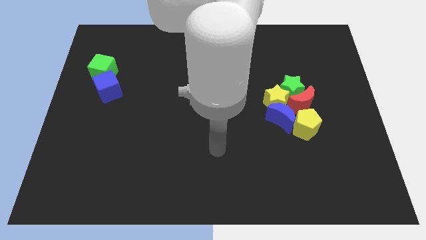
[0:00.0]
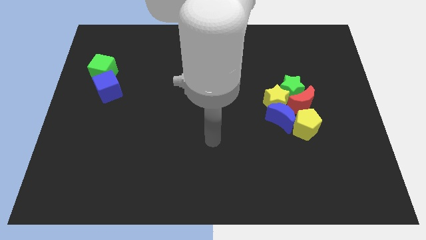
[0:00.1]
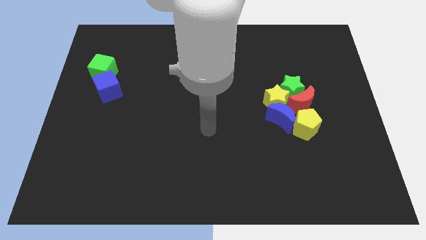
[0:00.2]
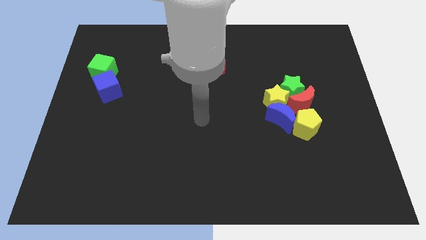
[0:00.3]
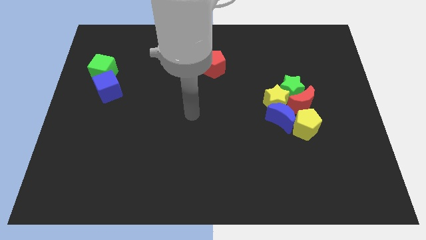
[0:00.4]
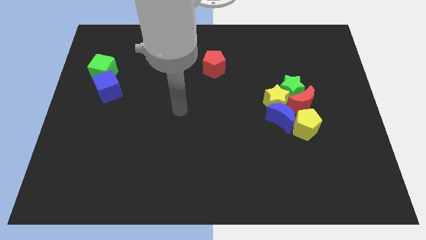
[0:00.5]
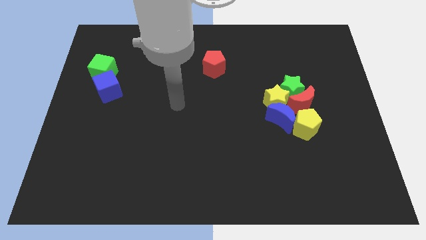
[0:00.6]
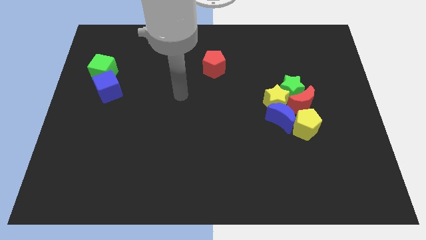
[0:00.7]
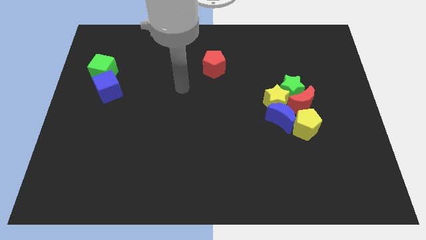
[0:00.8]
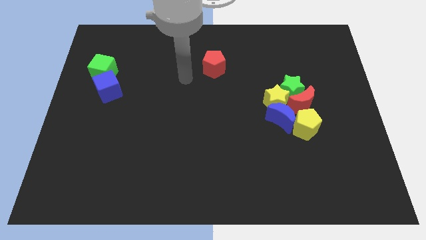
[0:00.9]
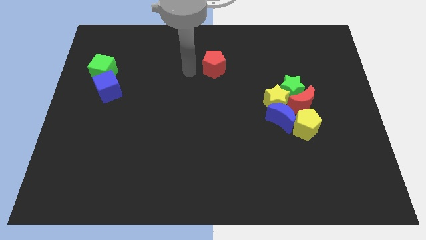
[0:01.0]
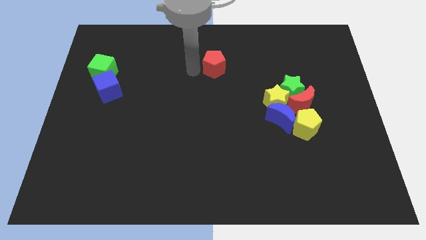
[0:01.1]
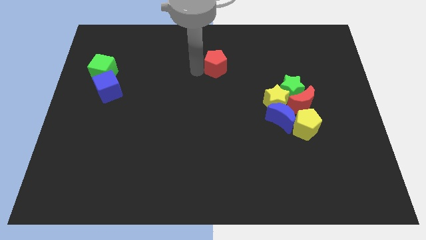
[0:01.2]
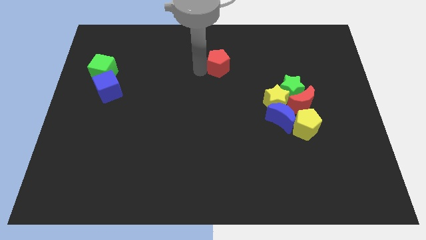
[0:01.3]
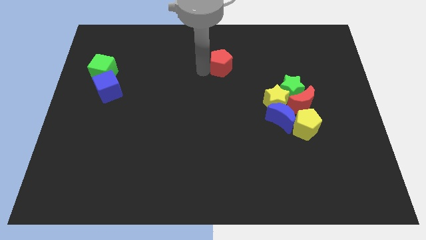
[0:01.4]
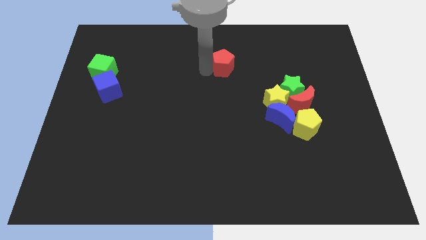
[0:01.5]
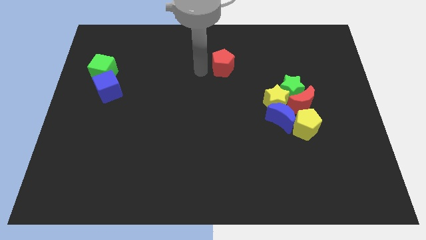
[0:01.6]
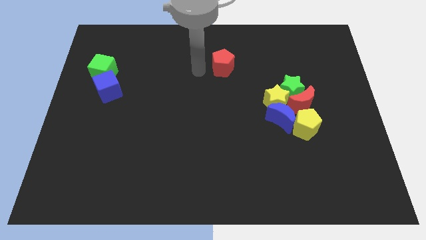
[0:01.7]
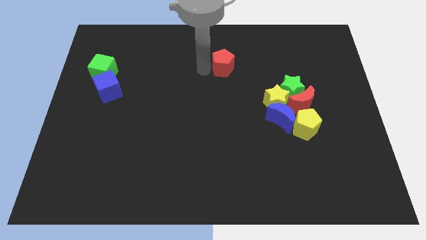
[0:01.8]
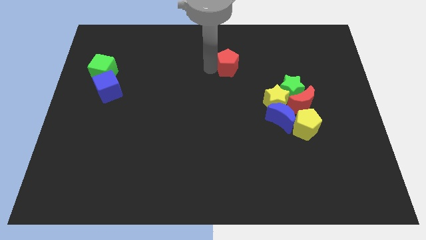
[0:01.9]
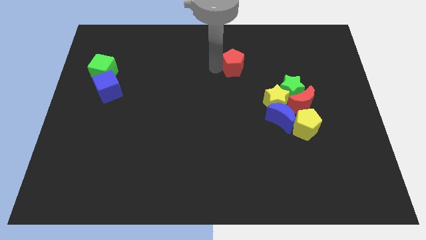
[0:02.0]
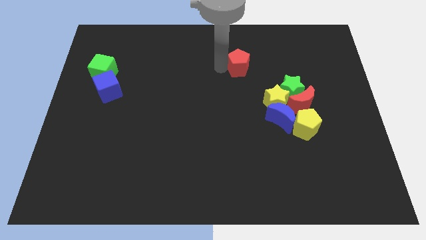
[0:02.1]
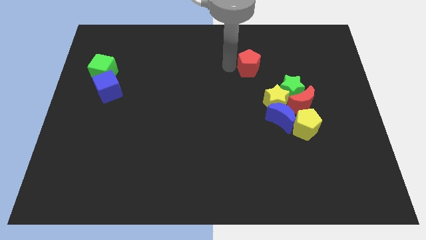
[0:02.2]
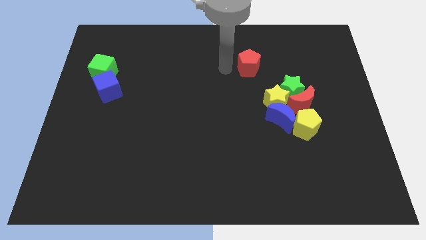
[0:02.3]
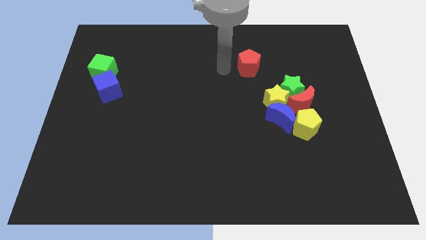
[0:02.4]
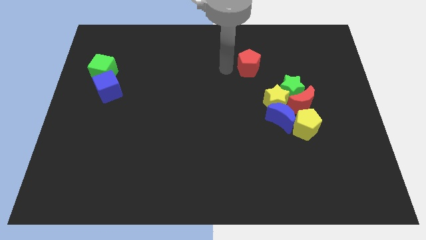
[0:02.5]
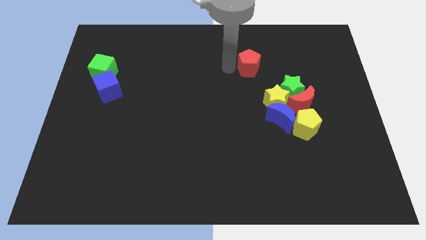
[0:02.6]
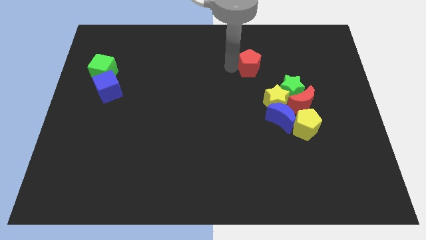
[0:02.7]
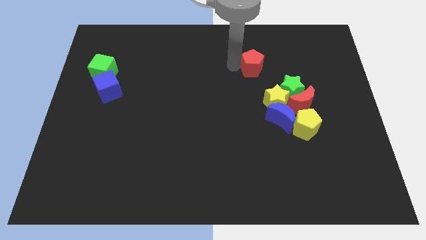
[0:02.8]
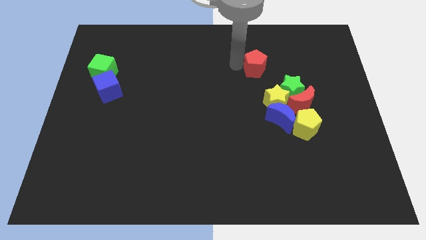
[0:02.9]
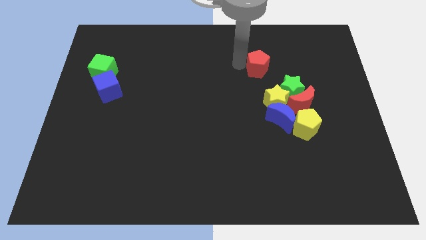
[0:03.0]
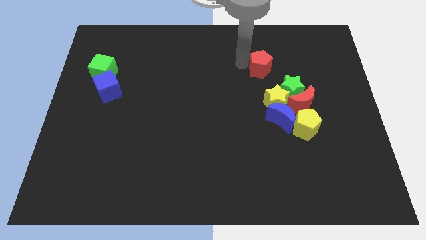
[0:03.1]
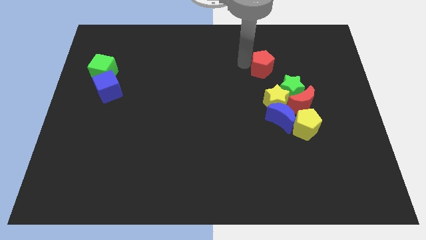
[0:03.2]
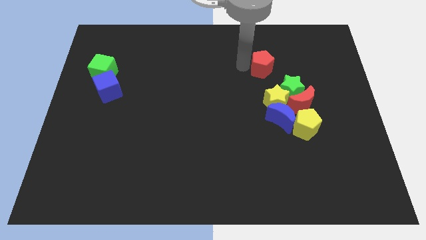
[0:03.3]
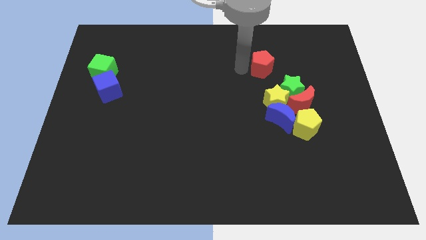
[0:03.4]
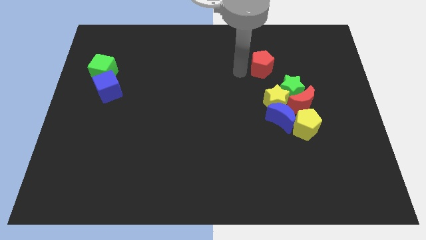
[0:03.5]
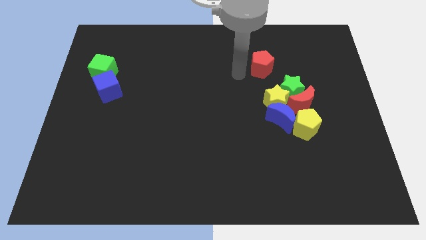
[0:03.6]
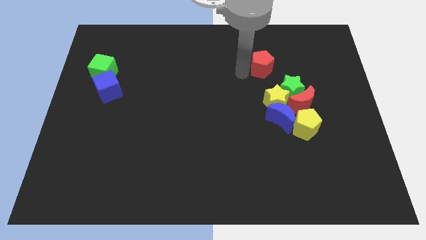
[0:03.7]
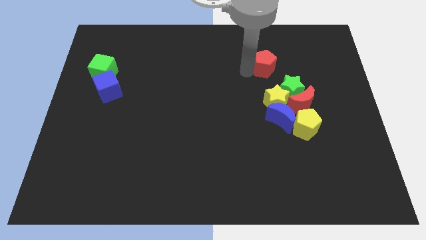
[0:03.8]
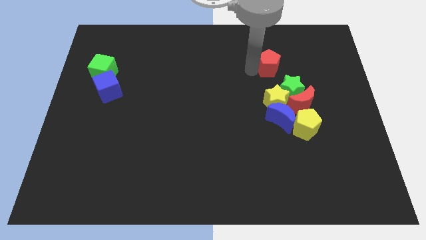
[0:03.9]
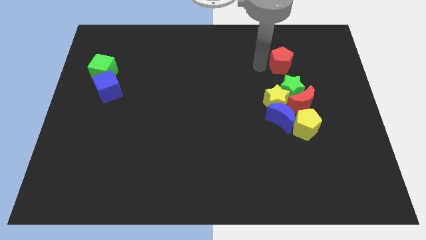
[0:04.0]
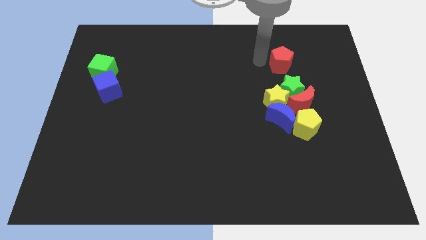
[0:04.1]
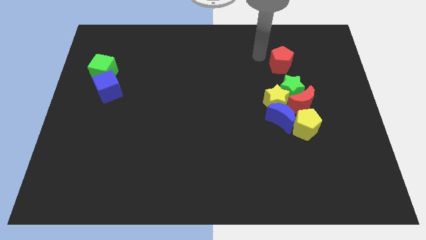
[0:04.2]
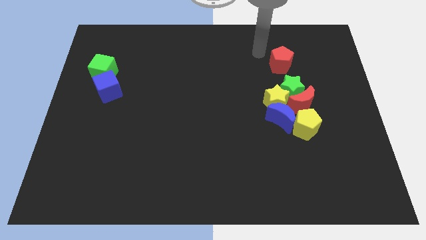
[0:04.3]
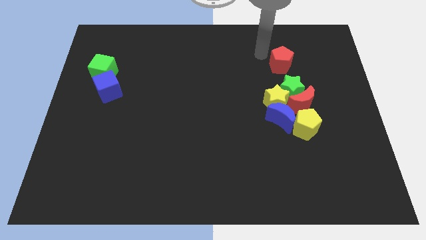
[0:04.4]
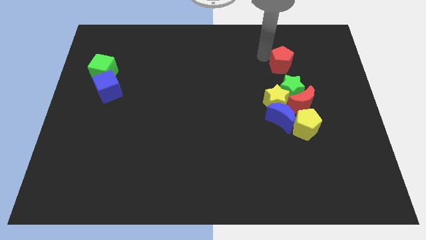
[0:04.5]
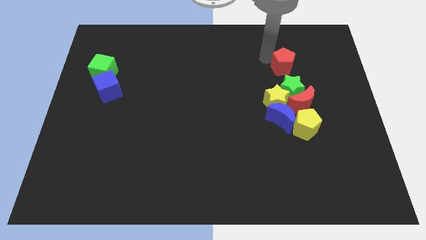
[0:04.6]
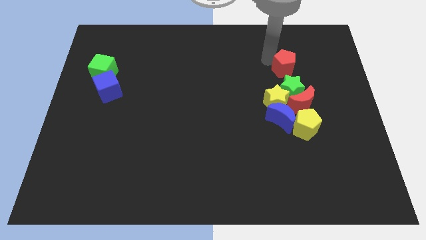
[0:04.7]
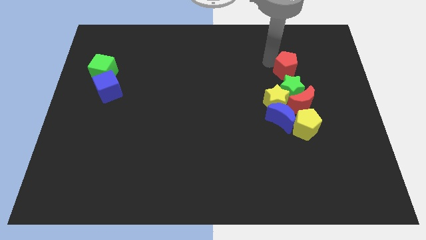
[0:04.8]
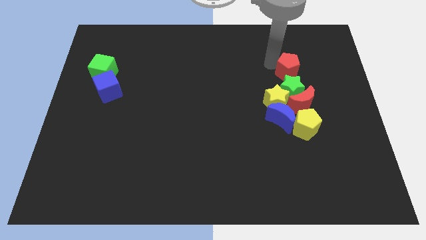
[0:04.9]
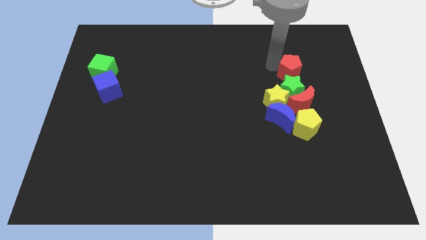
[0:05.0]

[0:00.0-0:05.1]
push the red pentagon to the top right side of the green star

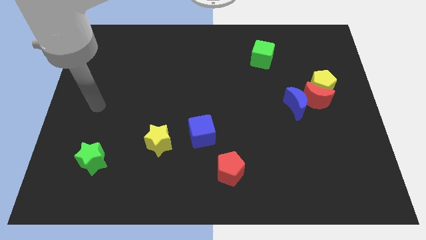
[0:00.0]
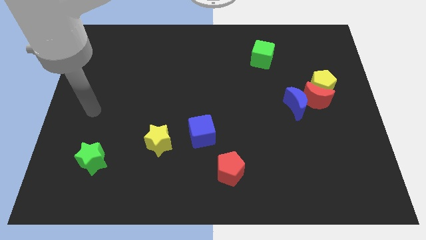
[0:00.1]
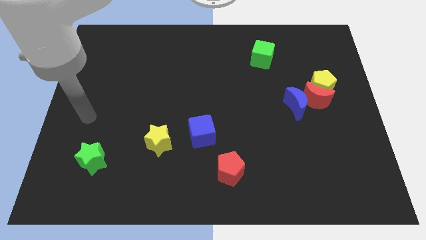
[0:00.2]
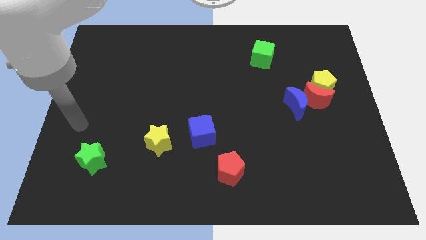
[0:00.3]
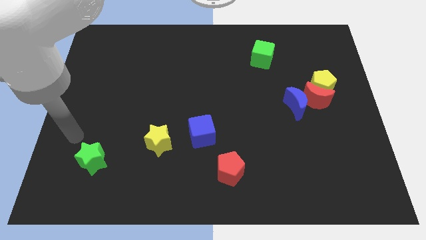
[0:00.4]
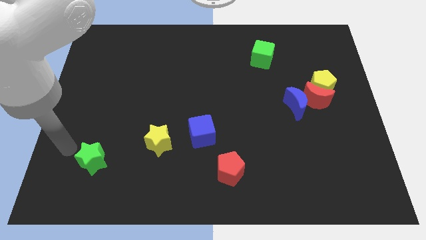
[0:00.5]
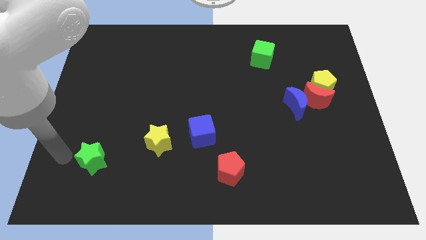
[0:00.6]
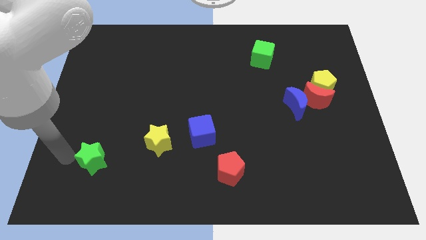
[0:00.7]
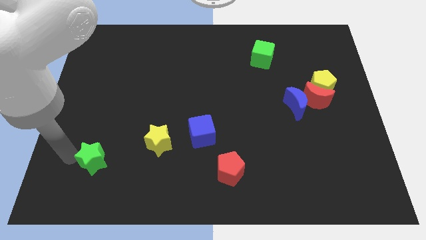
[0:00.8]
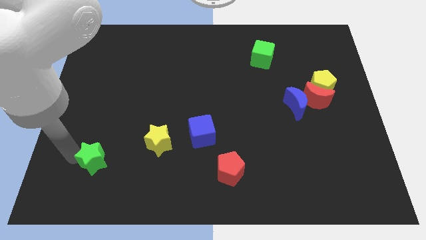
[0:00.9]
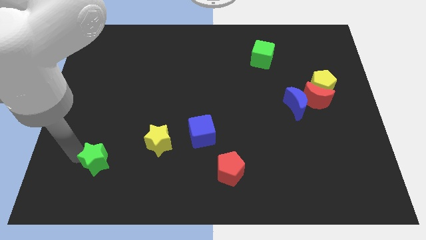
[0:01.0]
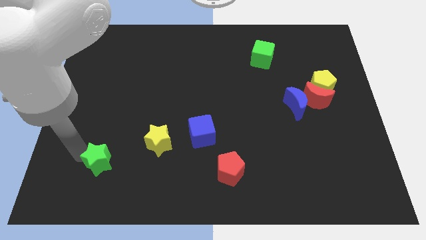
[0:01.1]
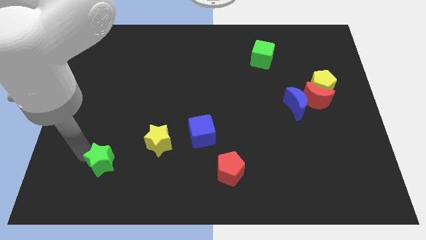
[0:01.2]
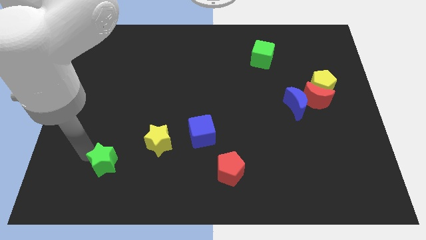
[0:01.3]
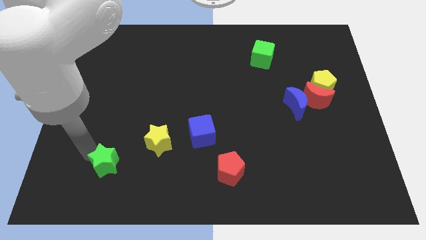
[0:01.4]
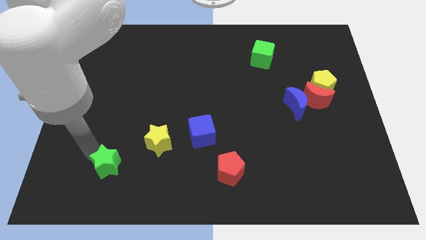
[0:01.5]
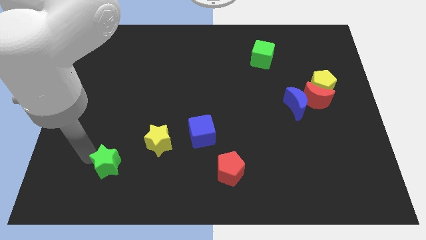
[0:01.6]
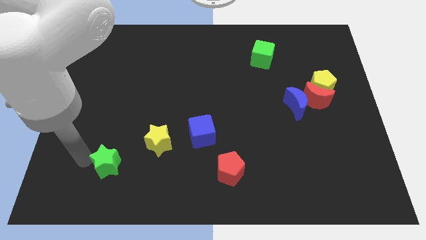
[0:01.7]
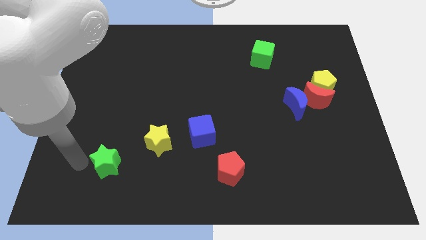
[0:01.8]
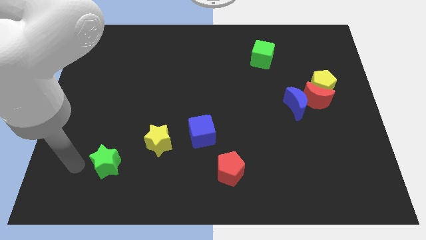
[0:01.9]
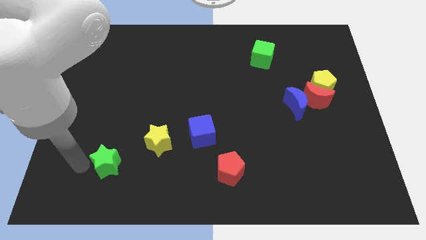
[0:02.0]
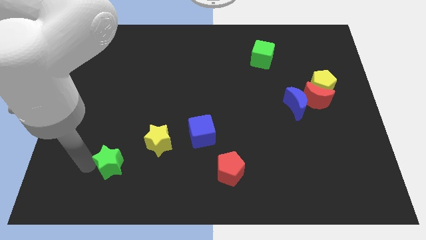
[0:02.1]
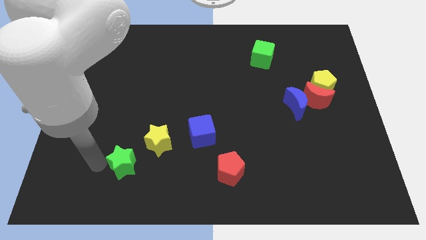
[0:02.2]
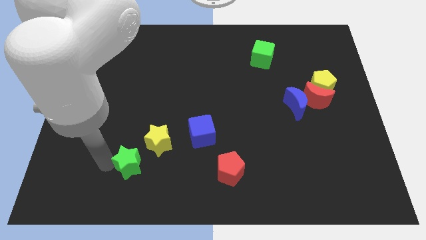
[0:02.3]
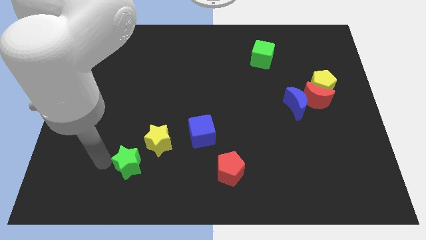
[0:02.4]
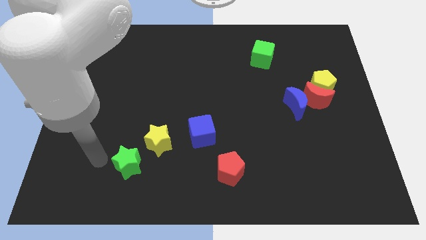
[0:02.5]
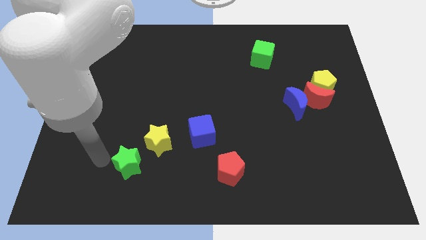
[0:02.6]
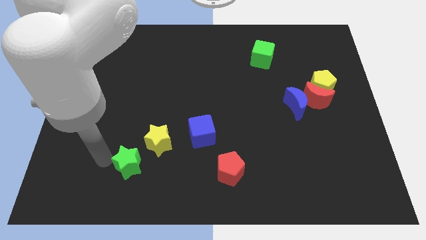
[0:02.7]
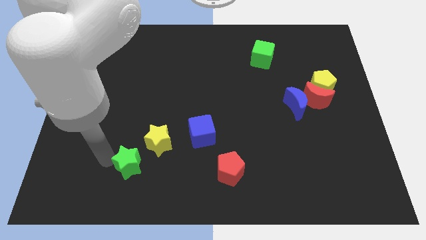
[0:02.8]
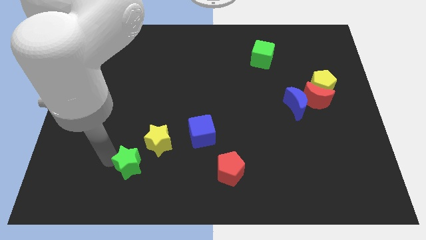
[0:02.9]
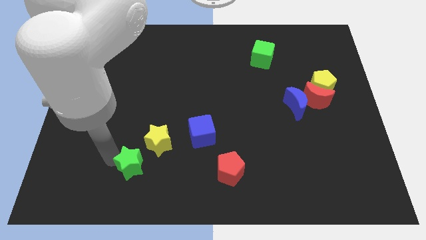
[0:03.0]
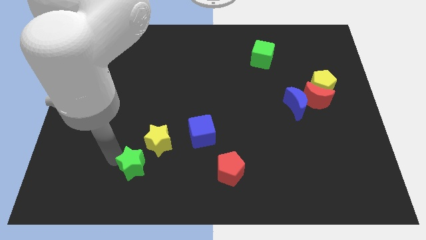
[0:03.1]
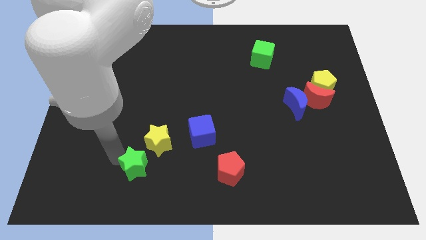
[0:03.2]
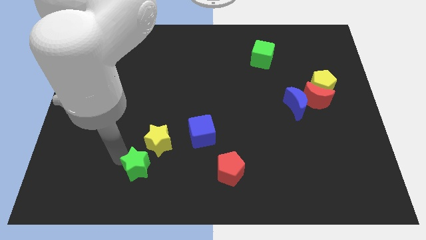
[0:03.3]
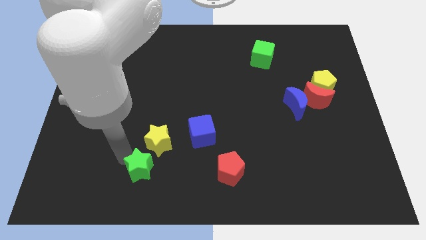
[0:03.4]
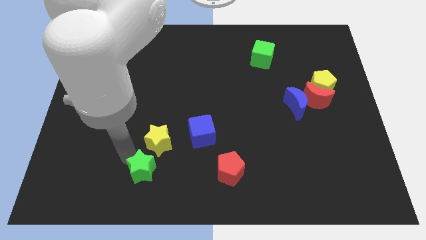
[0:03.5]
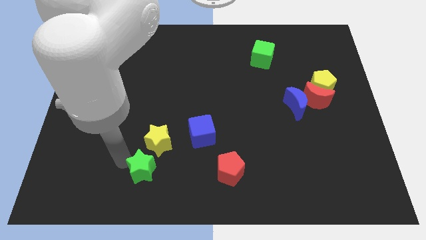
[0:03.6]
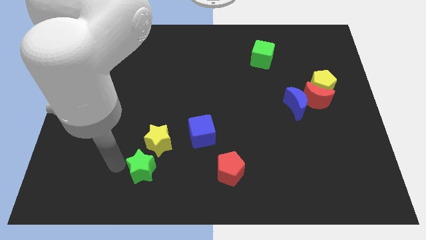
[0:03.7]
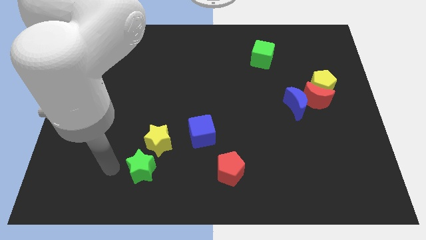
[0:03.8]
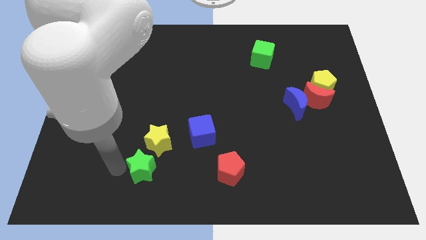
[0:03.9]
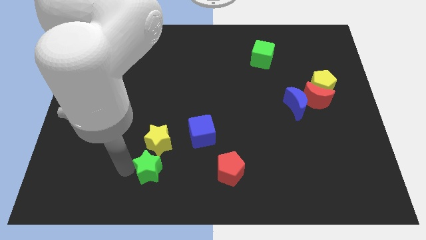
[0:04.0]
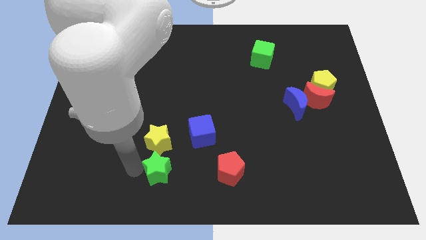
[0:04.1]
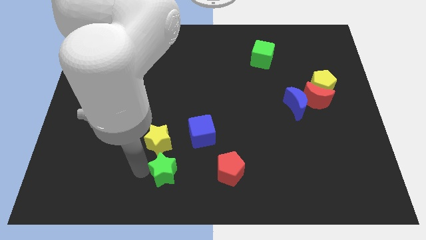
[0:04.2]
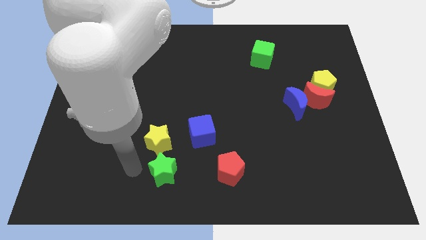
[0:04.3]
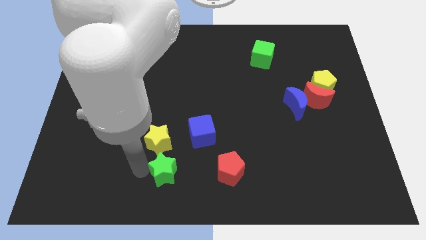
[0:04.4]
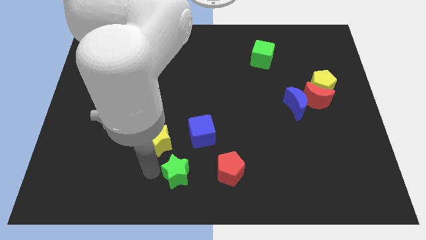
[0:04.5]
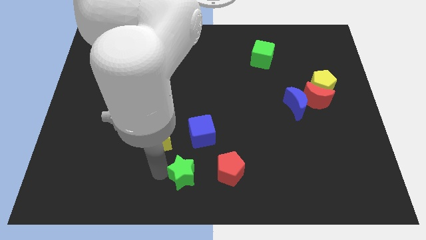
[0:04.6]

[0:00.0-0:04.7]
move the green star to the bottom side of the blue cube
